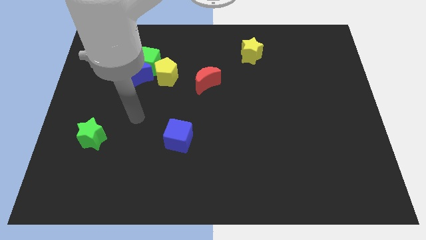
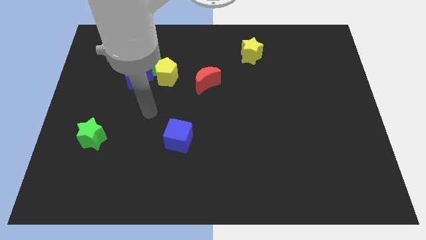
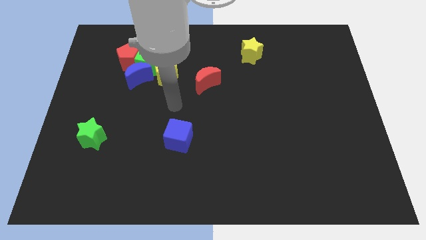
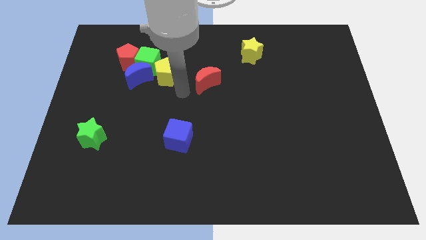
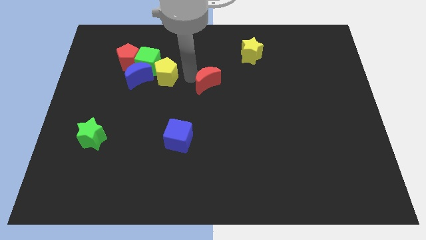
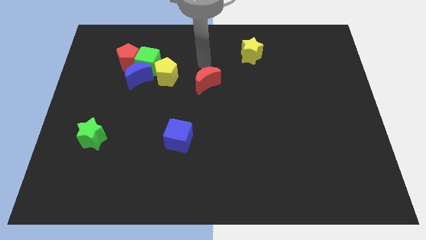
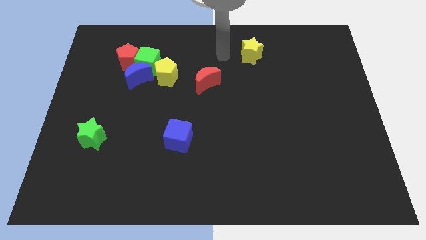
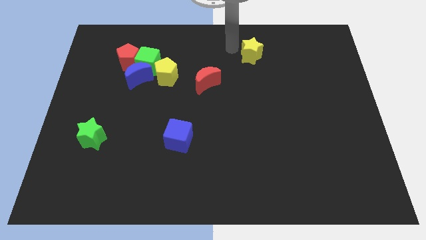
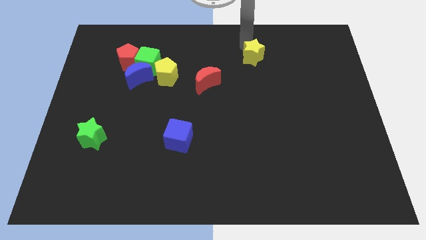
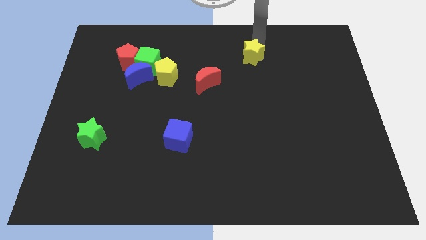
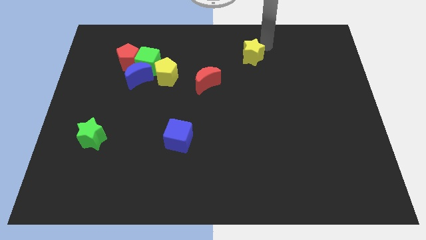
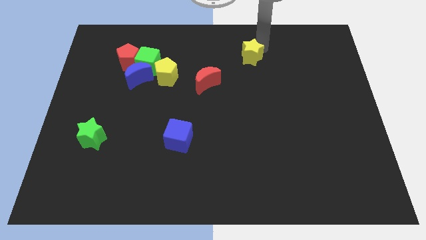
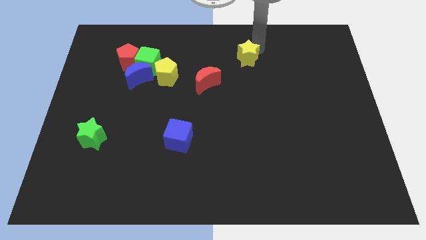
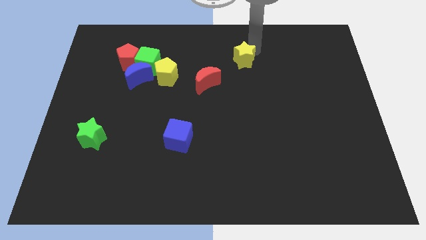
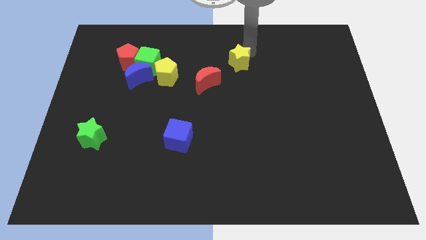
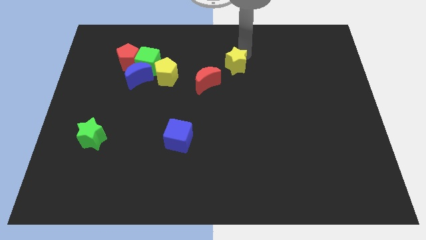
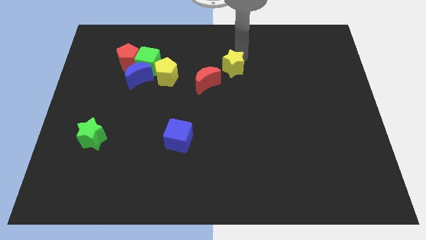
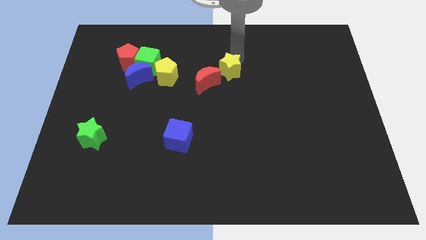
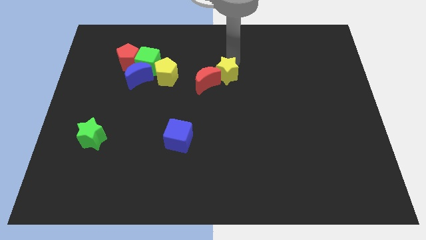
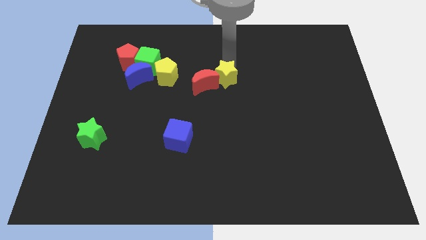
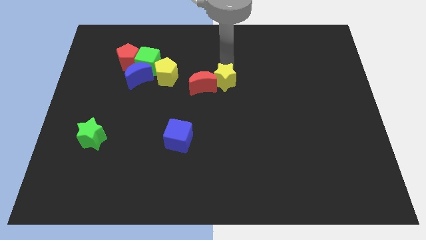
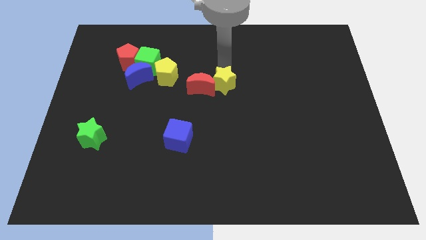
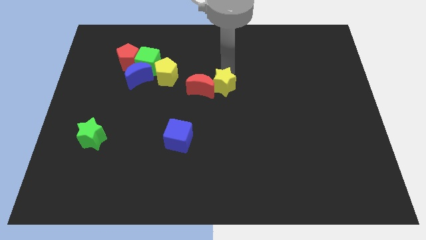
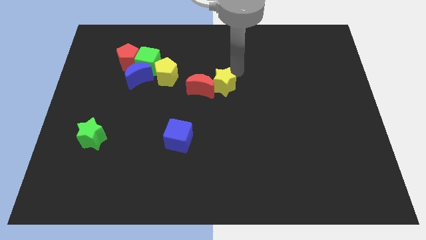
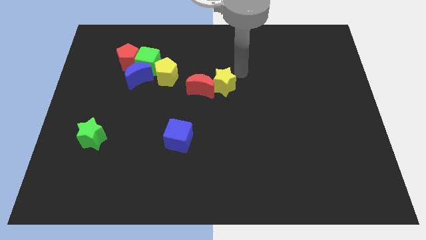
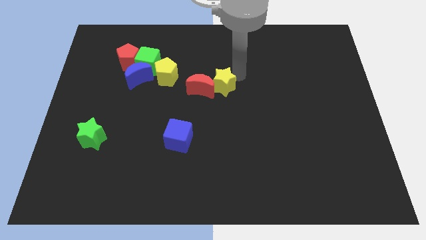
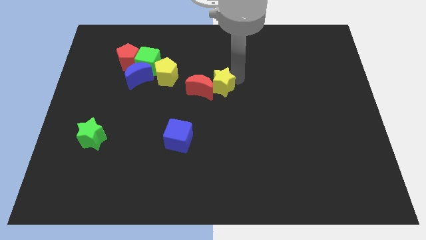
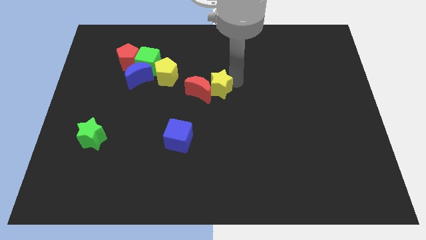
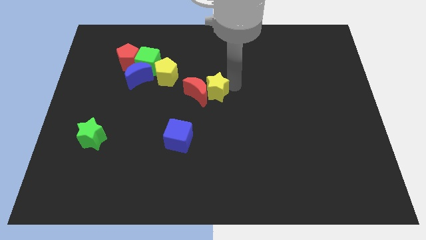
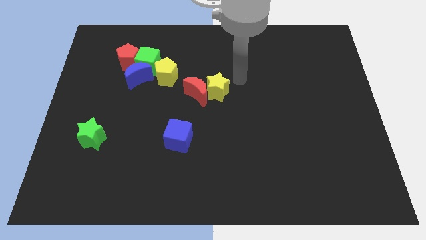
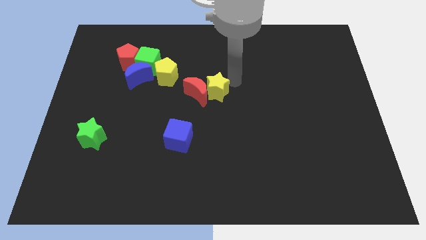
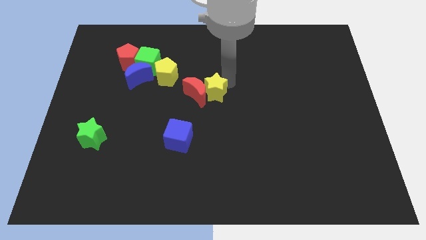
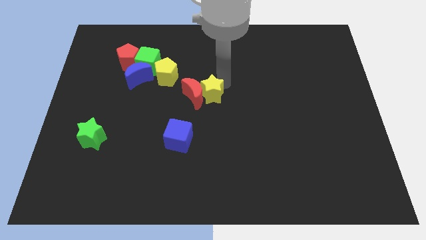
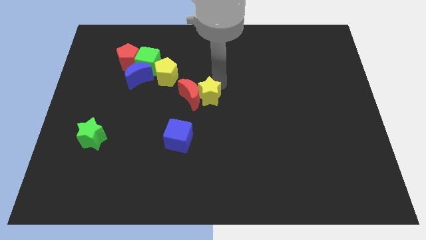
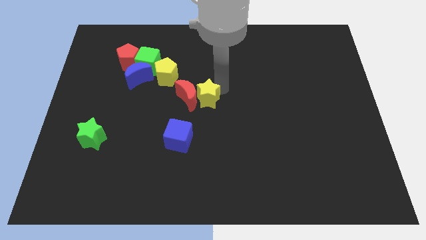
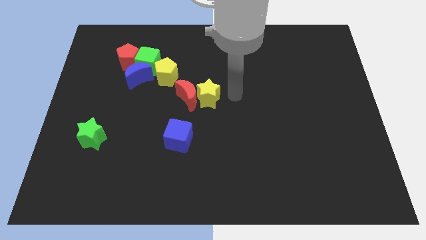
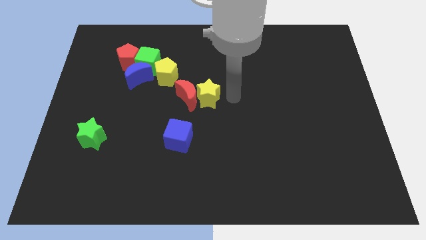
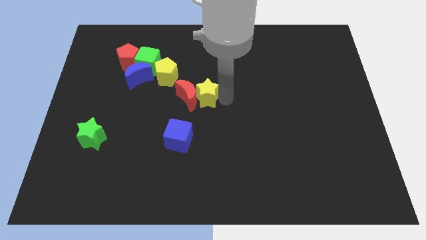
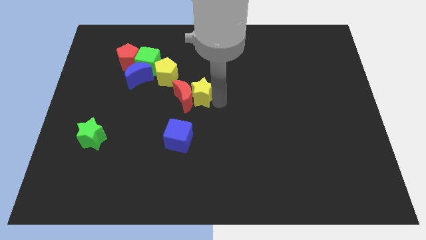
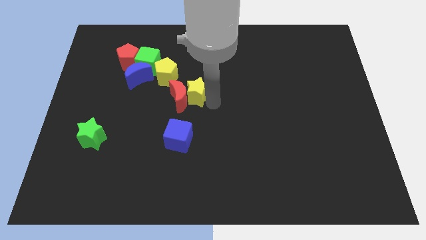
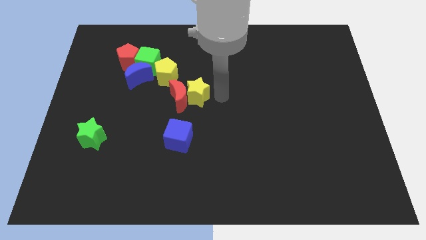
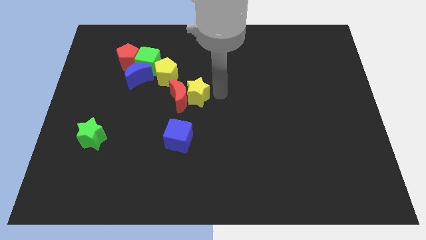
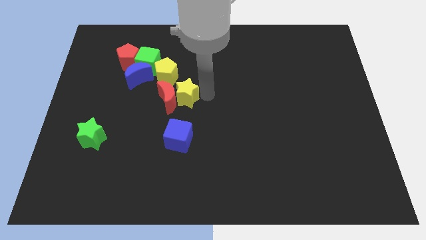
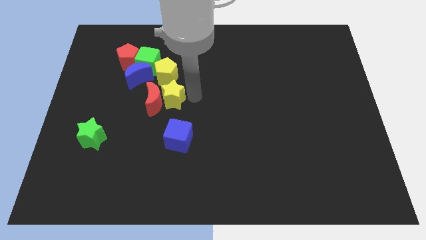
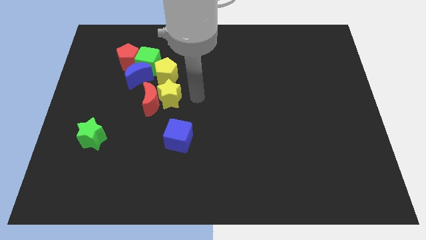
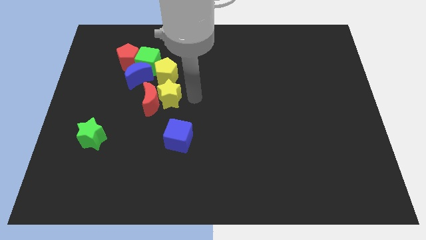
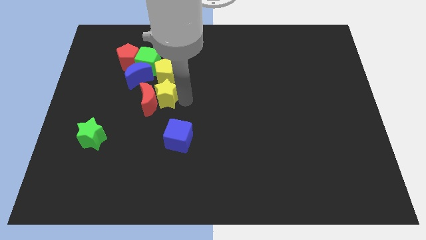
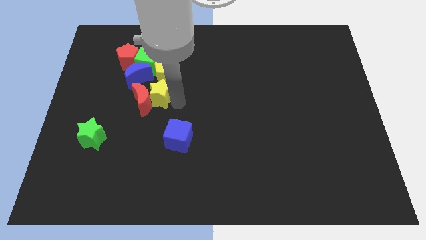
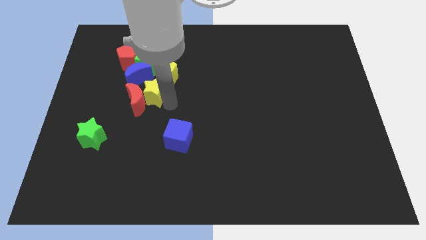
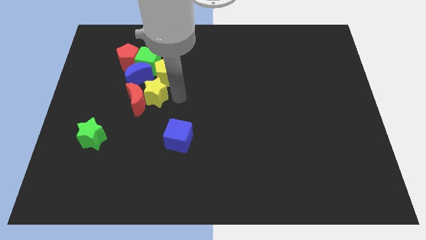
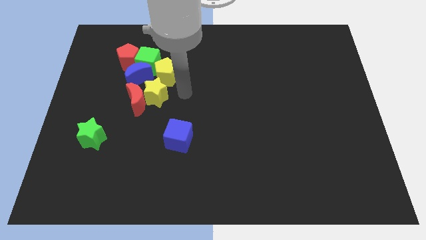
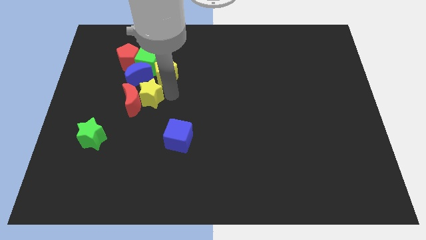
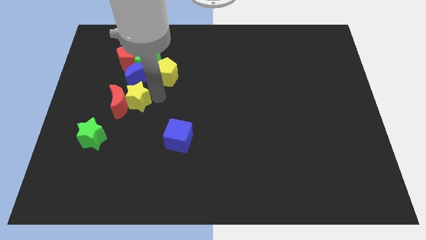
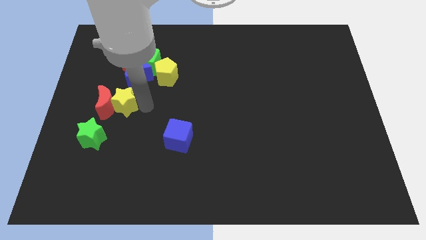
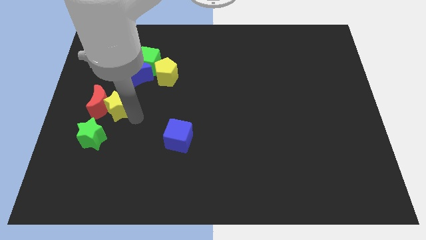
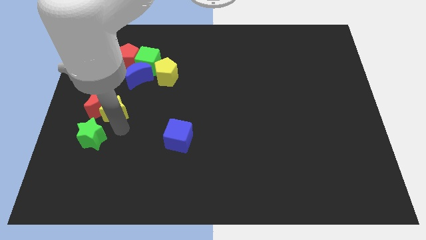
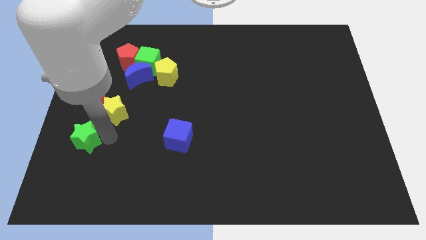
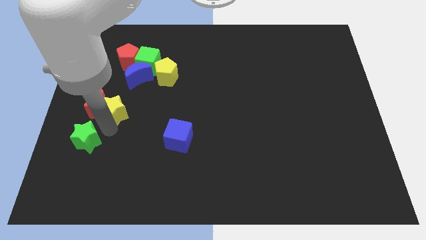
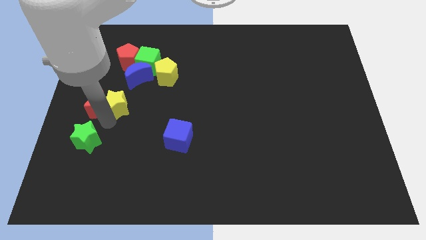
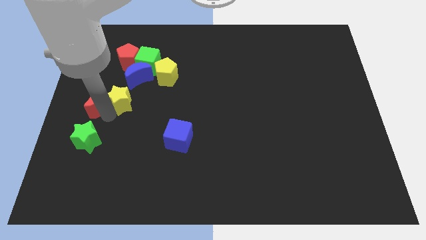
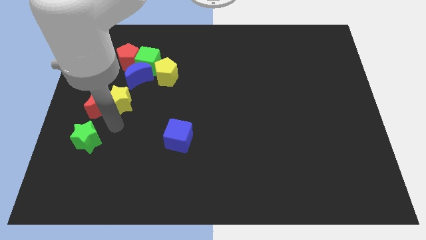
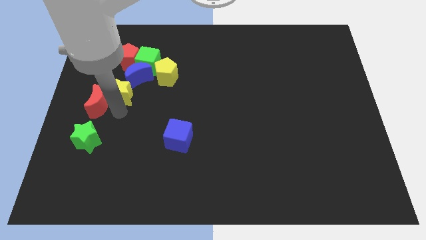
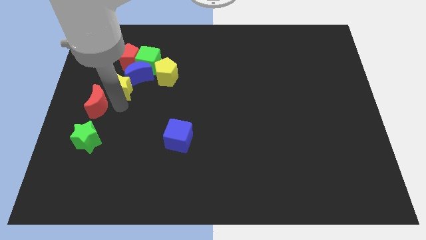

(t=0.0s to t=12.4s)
move the yellow star diagonally down and to the left of the green cube
